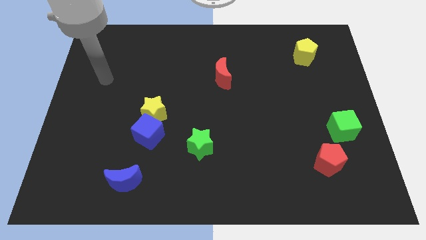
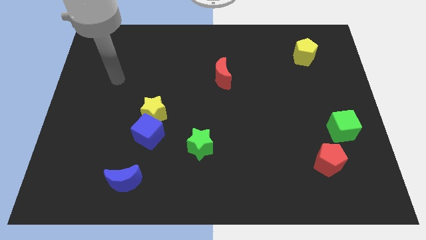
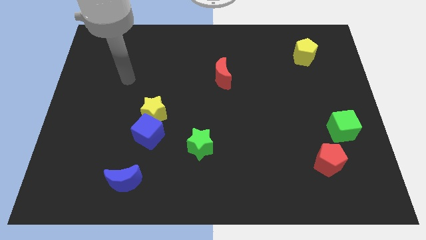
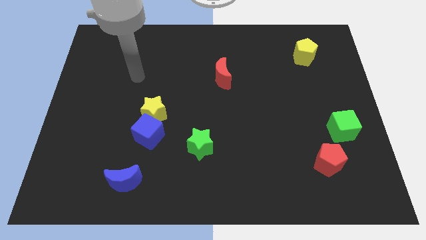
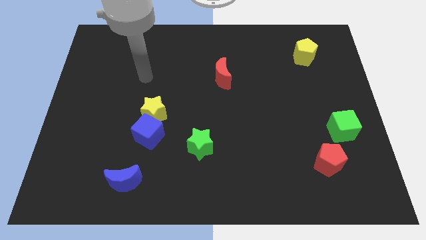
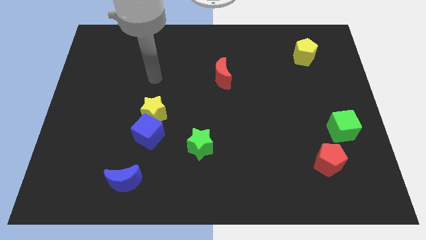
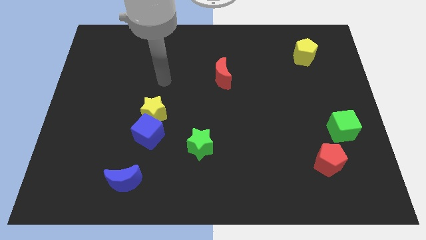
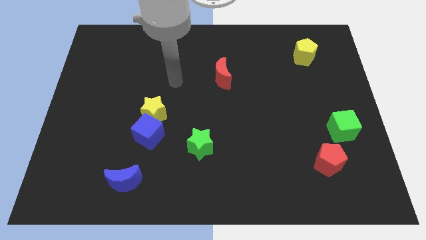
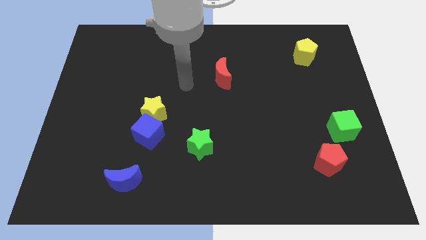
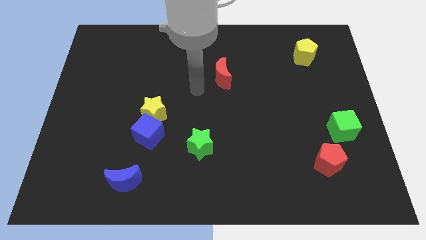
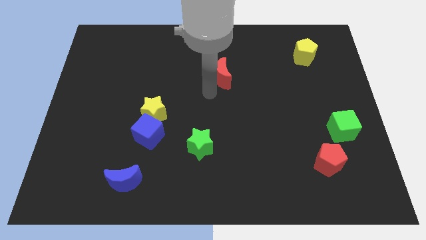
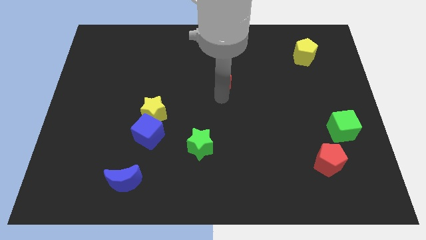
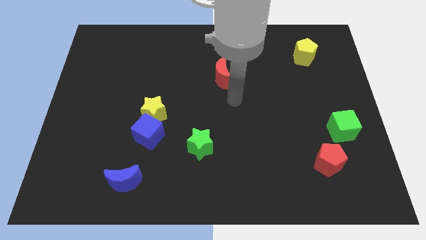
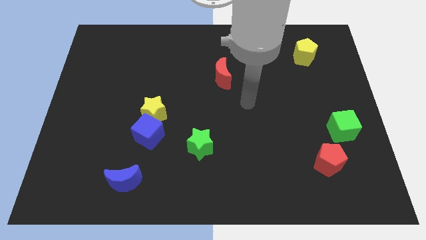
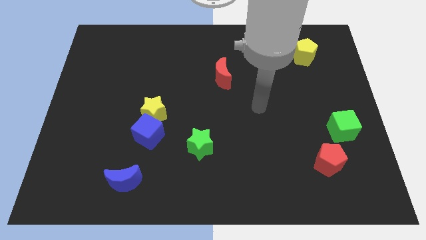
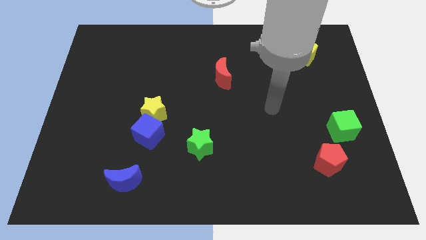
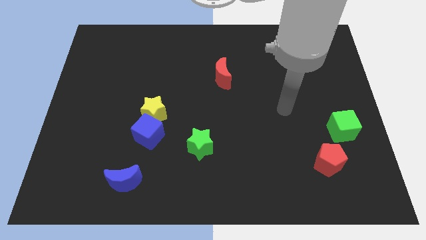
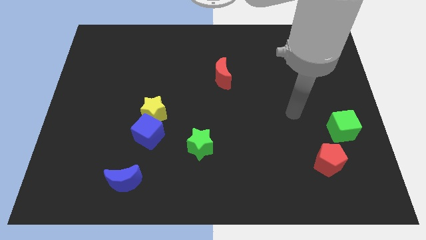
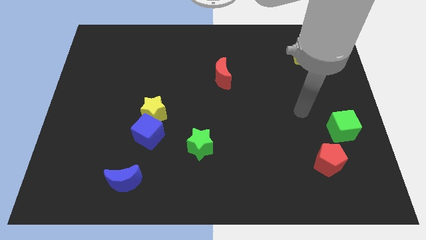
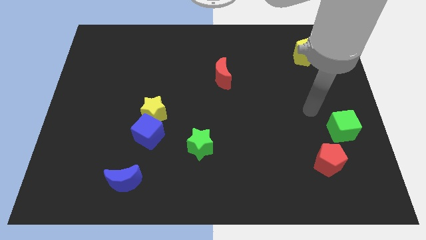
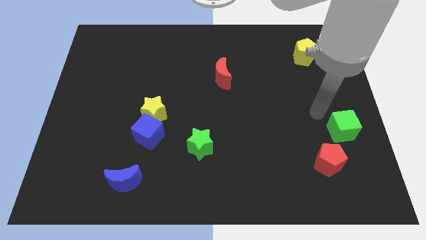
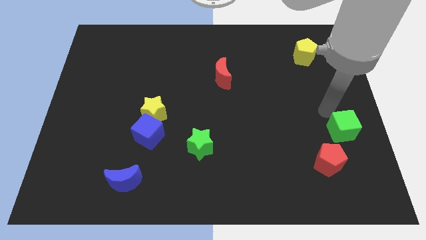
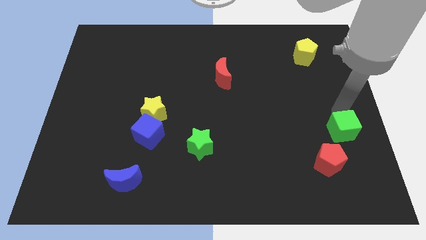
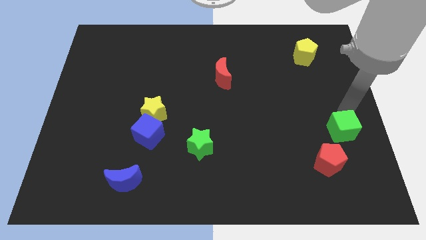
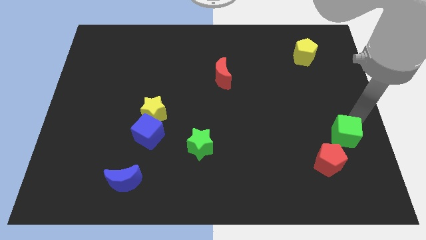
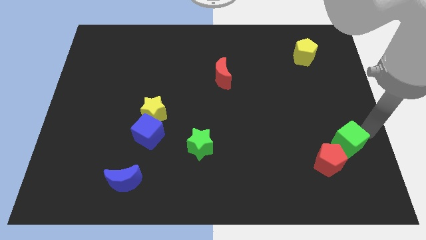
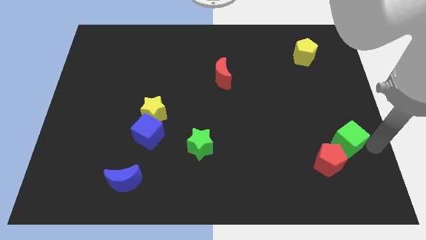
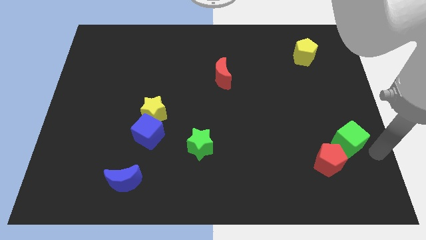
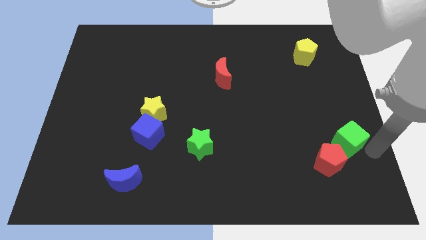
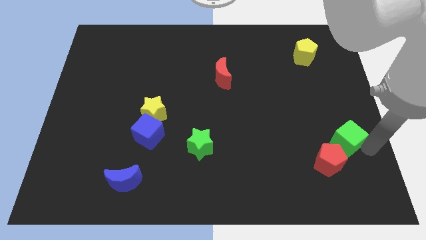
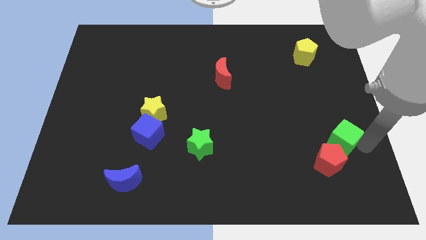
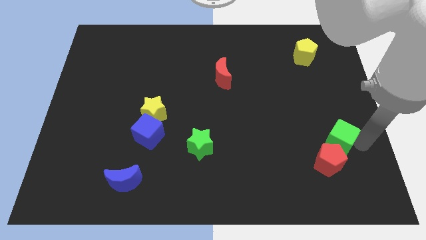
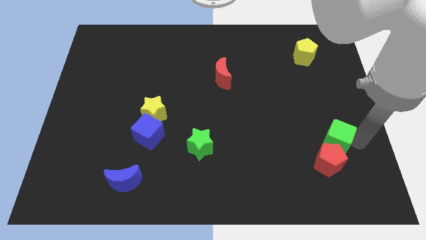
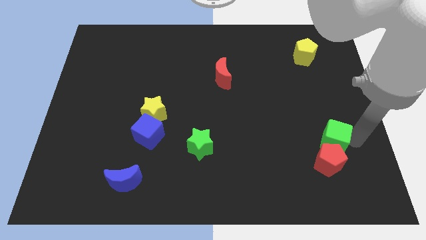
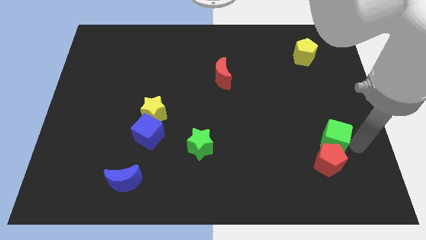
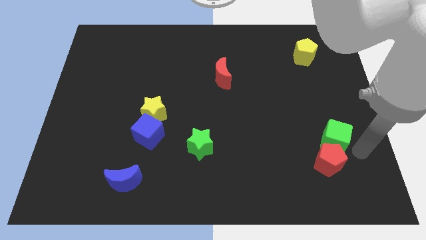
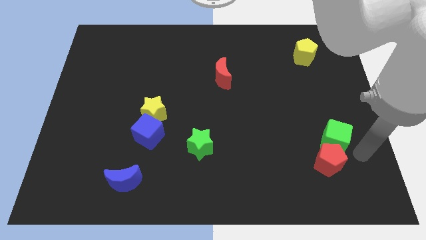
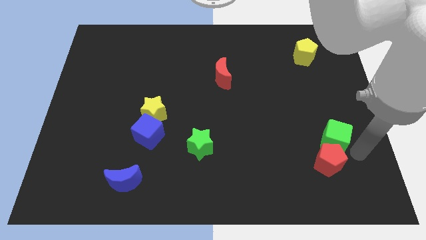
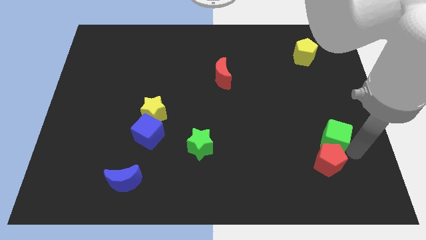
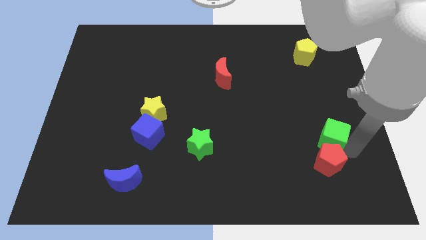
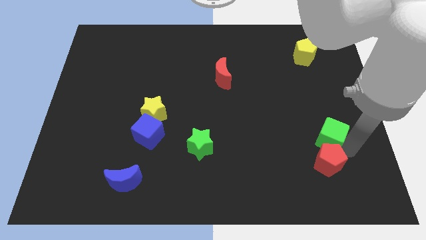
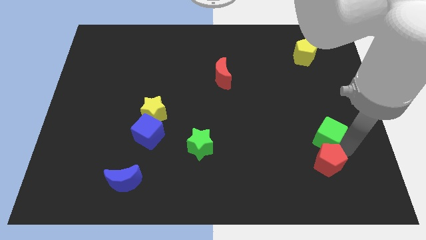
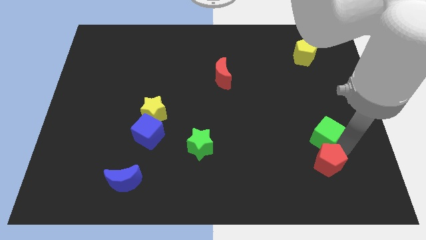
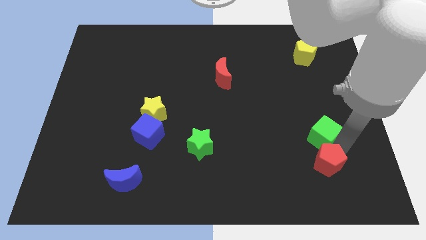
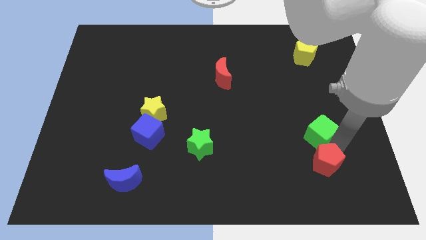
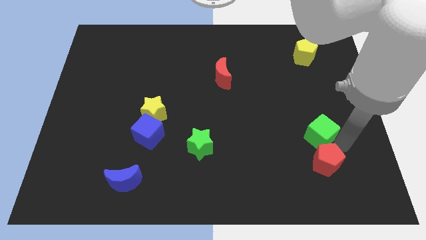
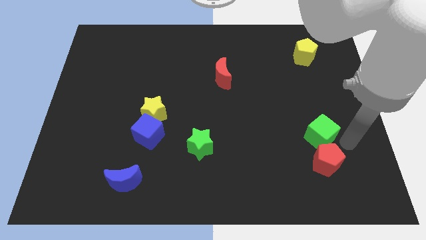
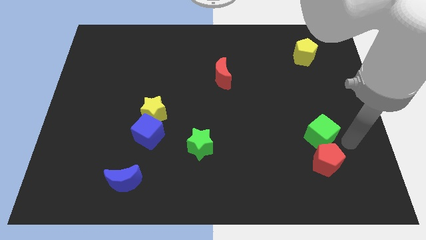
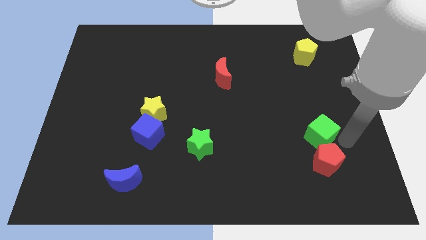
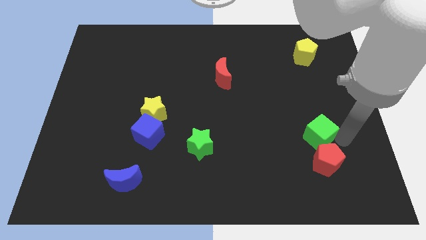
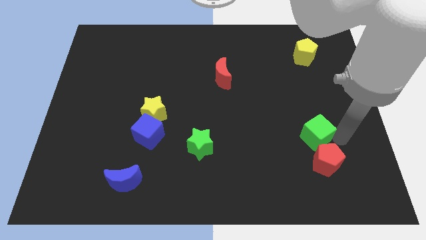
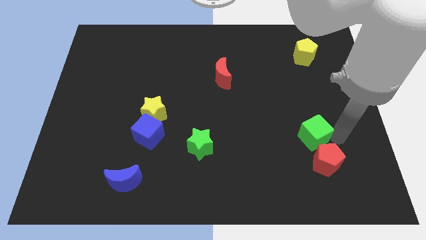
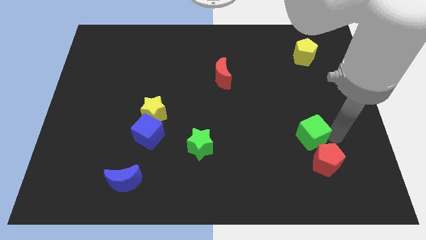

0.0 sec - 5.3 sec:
slightly move the green cube left

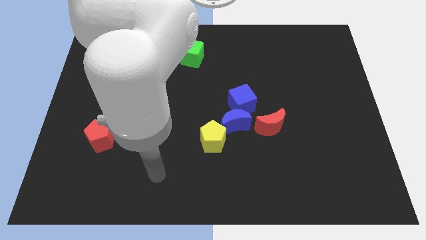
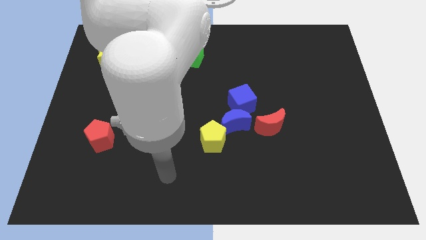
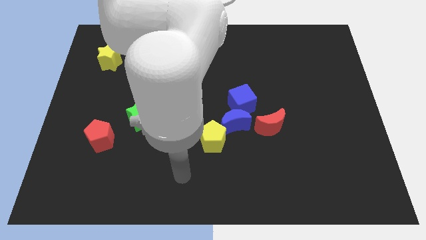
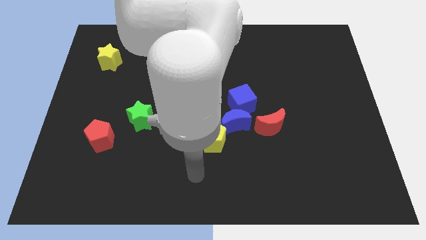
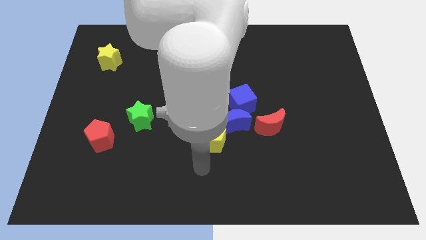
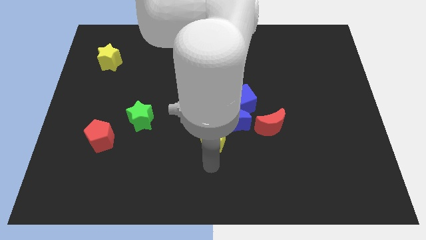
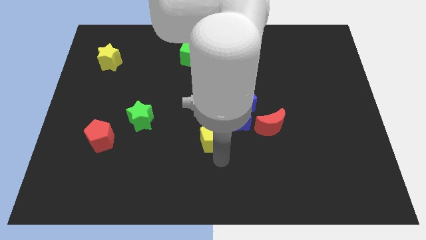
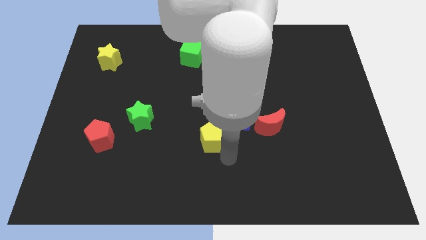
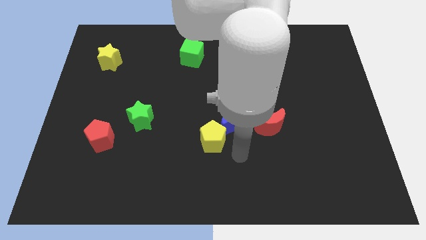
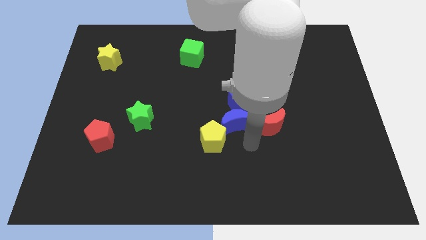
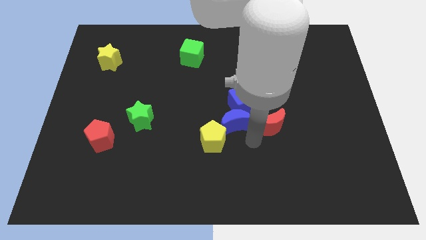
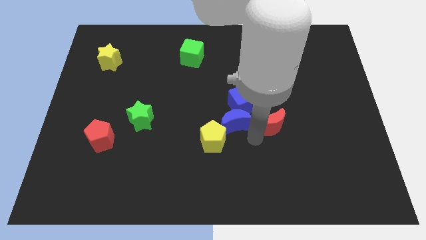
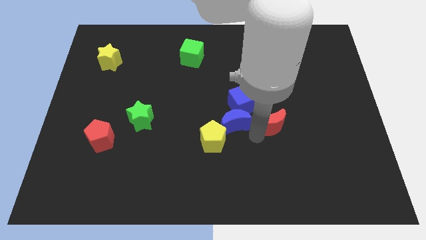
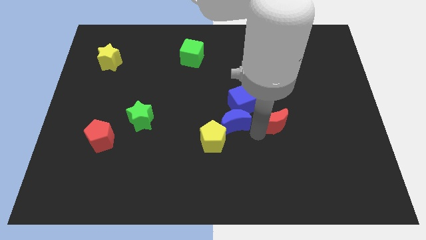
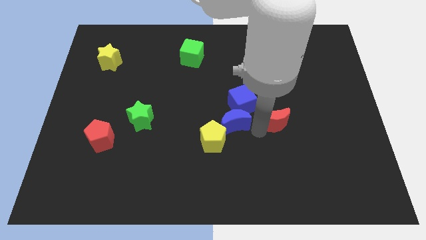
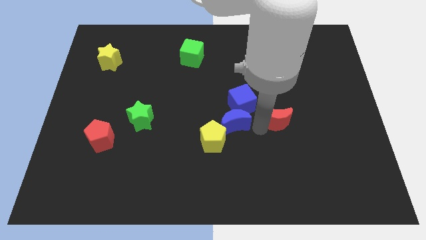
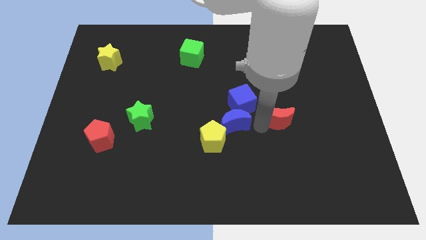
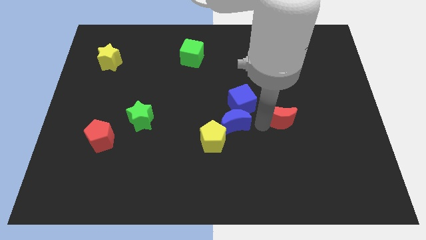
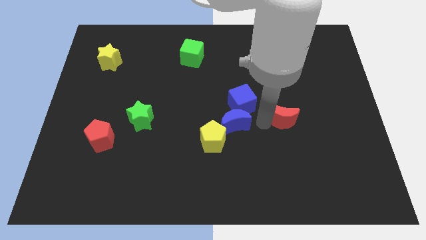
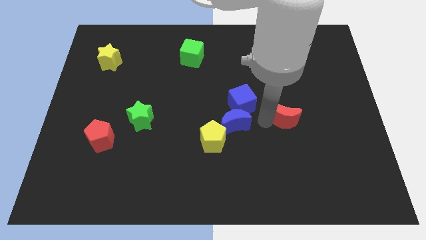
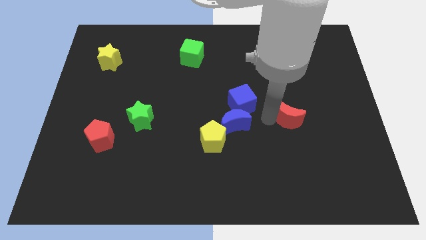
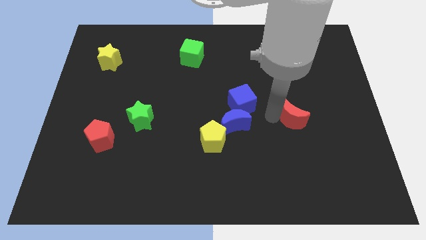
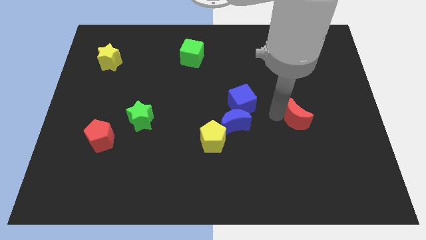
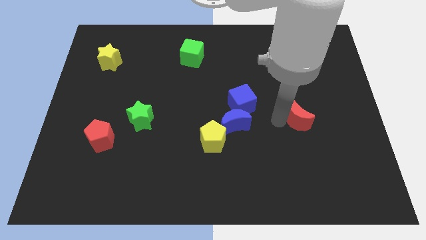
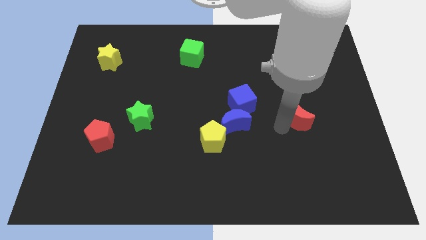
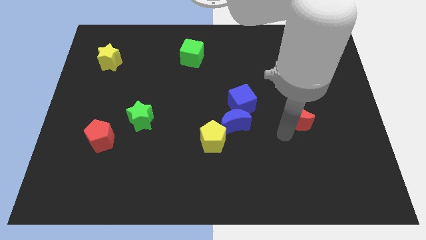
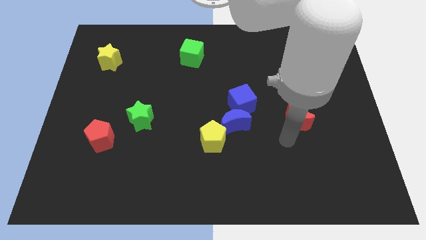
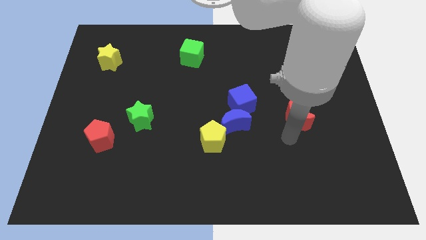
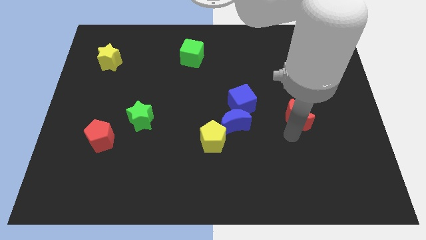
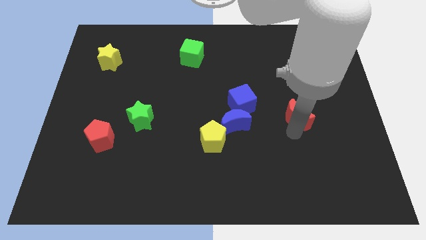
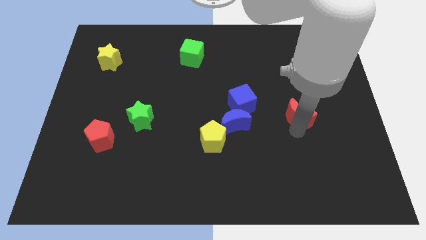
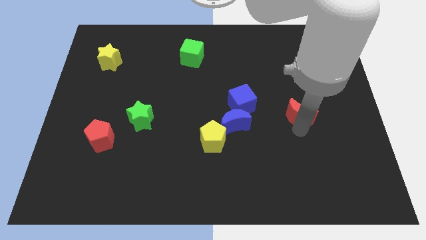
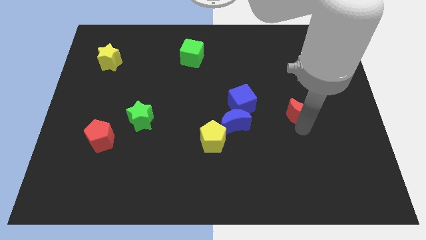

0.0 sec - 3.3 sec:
move the red moon a little bit upwards and then right

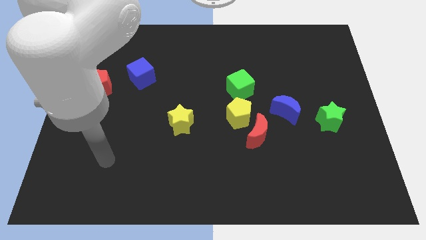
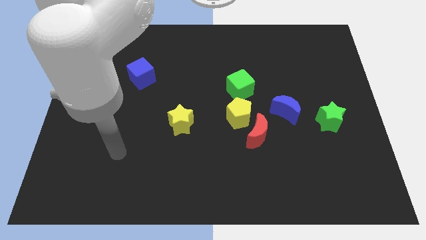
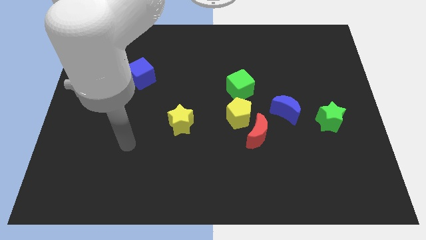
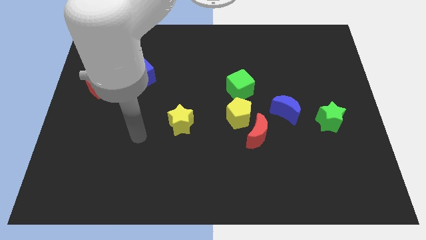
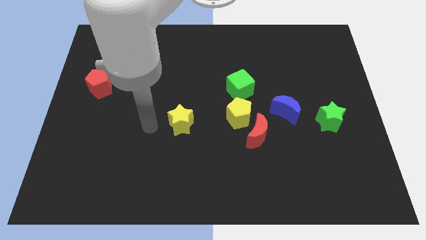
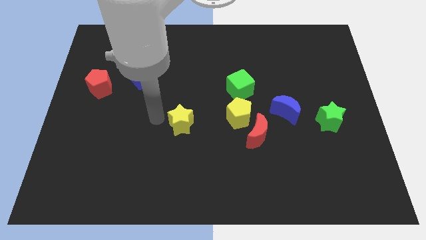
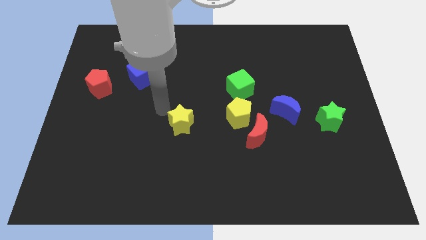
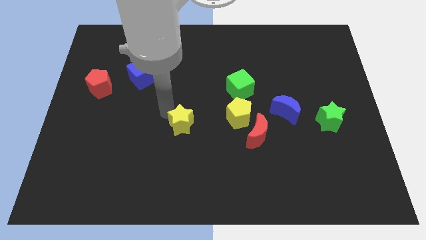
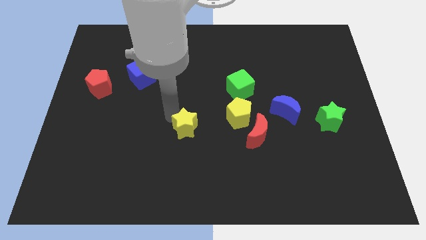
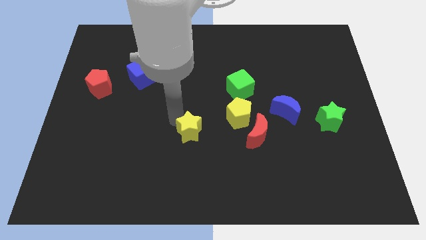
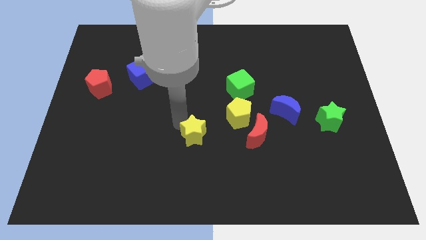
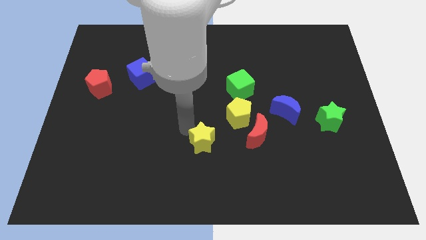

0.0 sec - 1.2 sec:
slightly move the yellow star down and to the right
